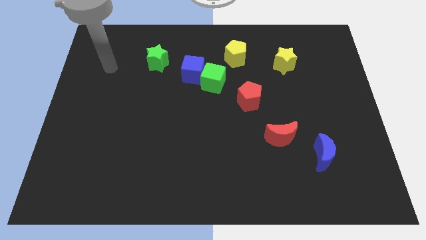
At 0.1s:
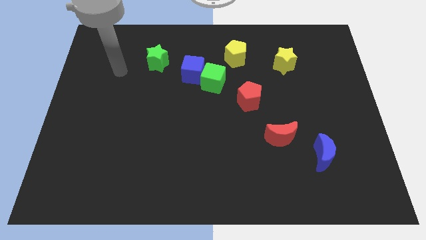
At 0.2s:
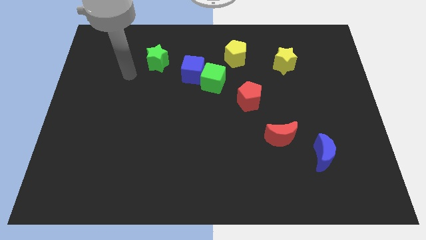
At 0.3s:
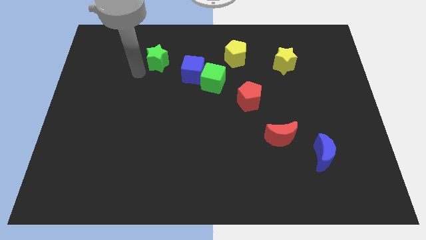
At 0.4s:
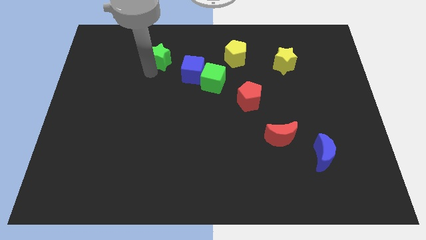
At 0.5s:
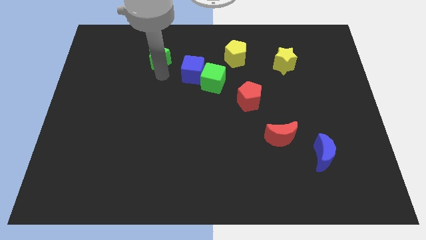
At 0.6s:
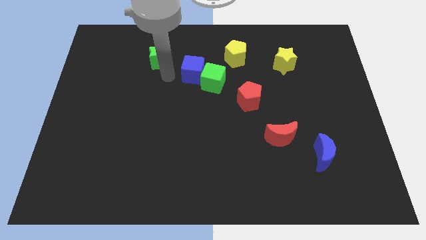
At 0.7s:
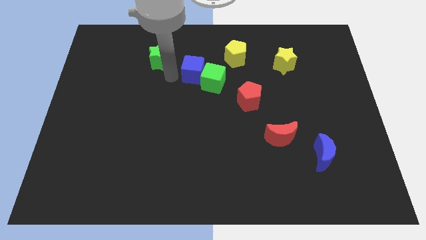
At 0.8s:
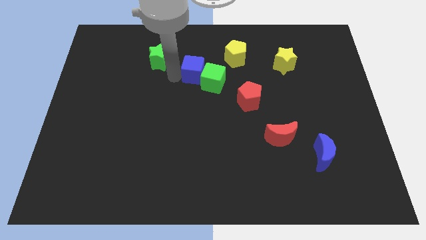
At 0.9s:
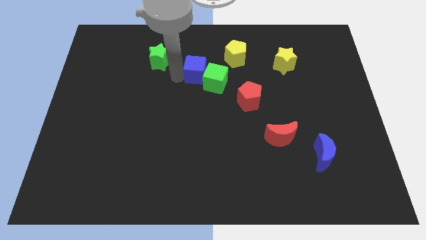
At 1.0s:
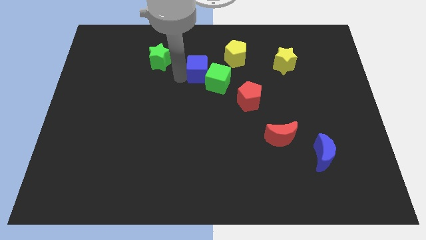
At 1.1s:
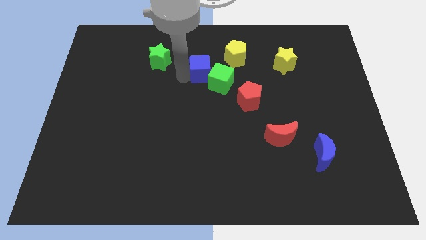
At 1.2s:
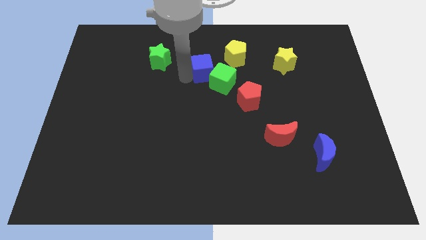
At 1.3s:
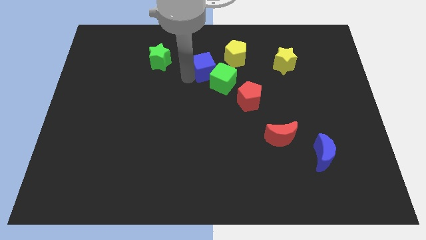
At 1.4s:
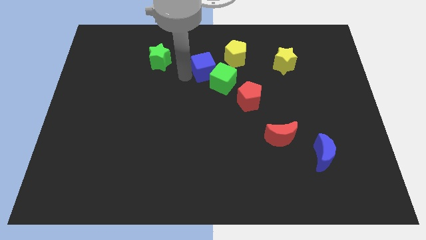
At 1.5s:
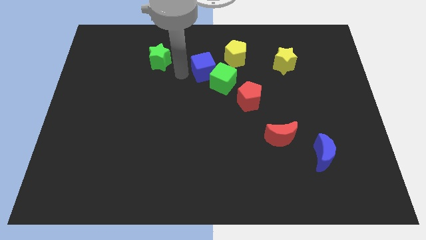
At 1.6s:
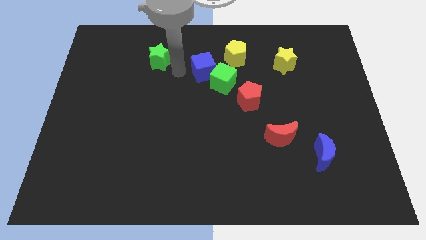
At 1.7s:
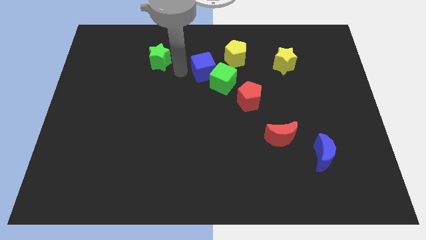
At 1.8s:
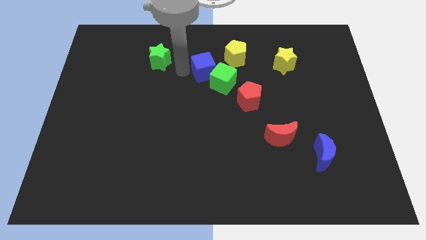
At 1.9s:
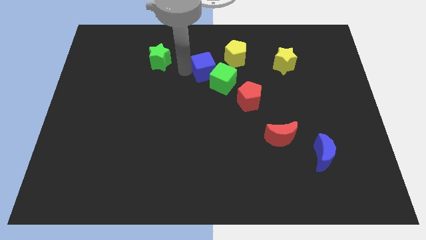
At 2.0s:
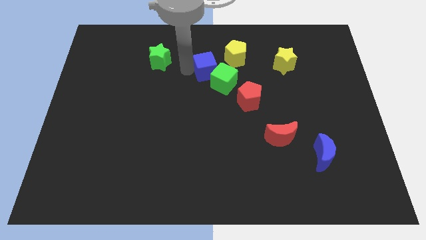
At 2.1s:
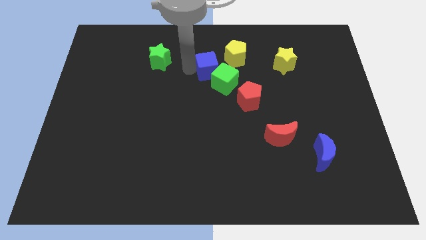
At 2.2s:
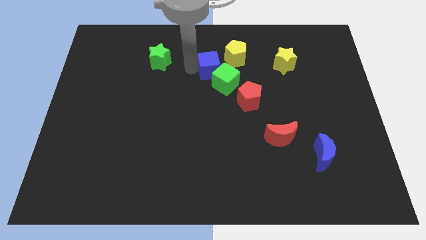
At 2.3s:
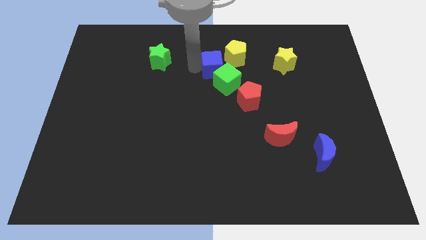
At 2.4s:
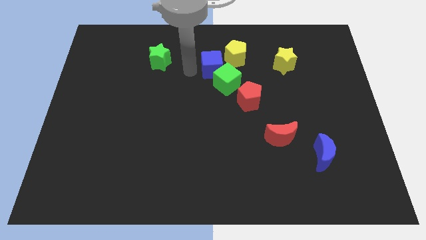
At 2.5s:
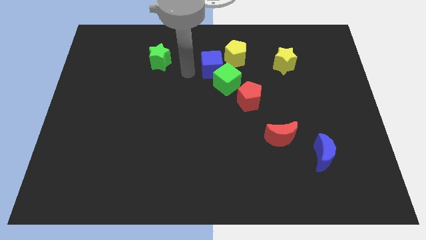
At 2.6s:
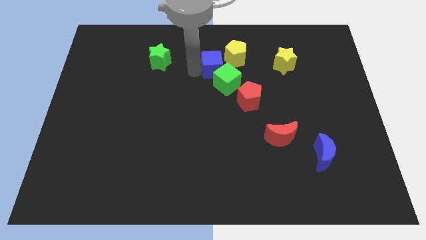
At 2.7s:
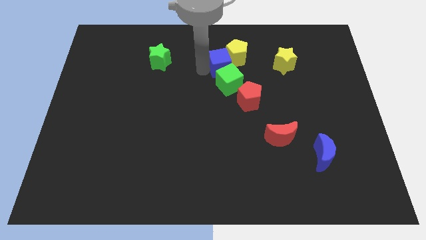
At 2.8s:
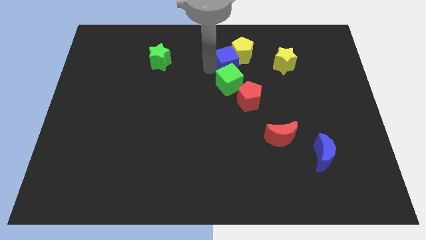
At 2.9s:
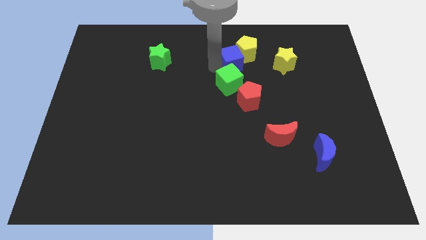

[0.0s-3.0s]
move the blue cube away from the green cube and green star

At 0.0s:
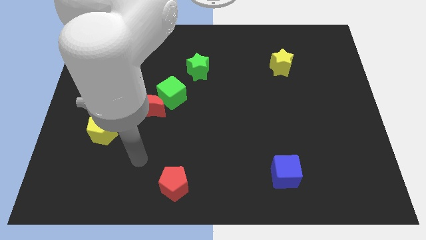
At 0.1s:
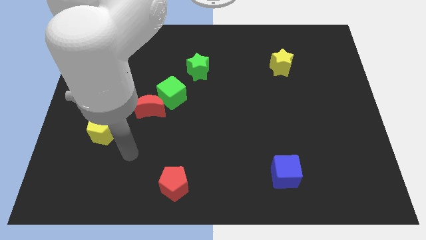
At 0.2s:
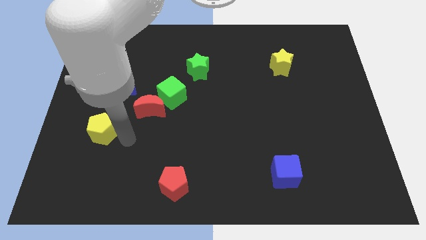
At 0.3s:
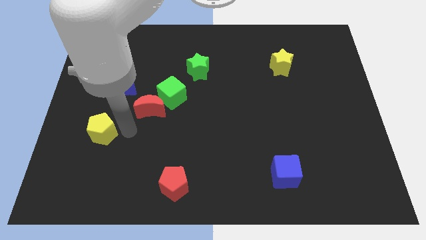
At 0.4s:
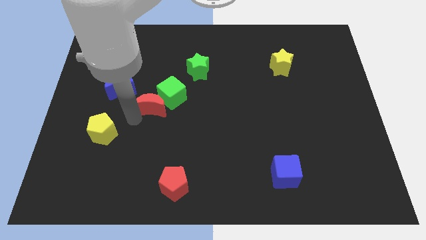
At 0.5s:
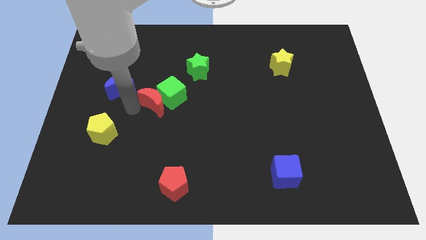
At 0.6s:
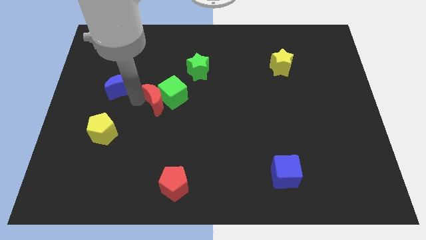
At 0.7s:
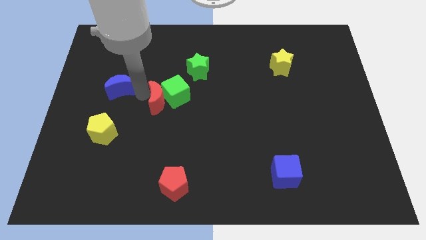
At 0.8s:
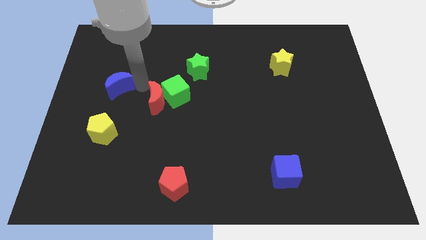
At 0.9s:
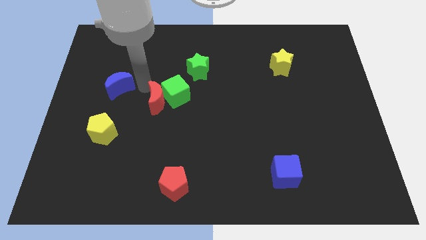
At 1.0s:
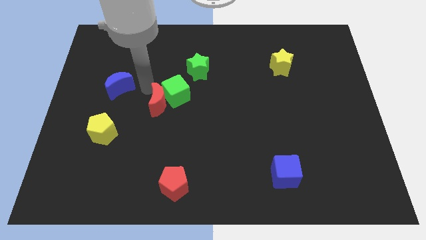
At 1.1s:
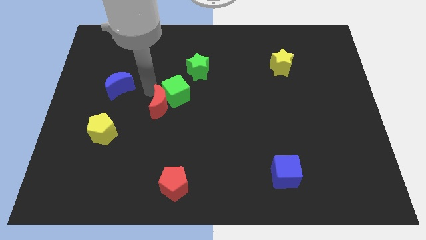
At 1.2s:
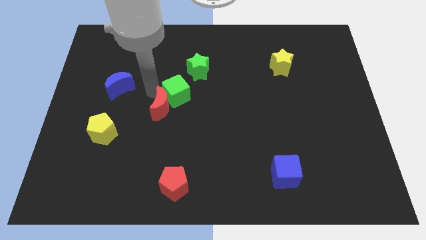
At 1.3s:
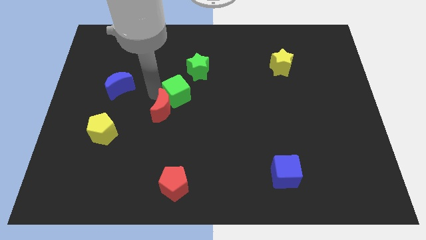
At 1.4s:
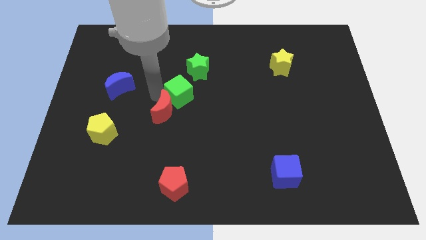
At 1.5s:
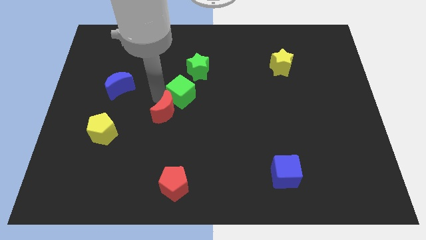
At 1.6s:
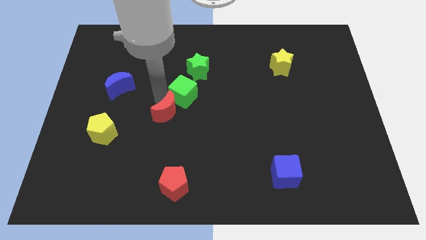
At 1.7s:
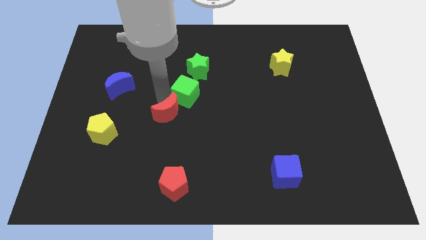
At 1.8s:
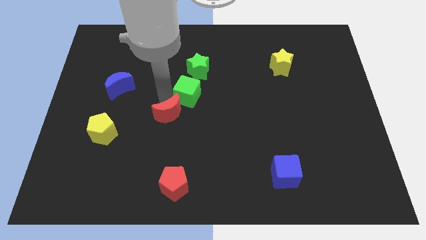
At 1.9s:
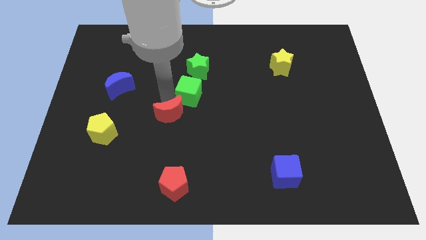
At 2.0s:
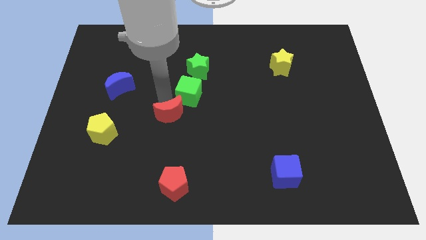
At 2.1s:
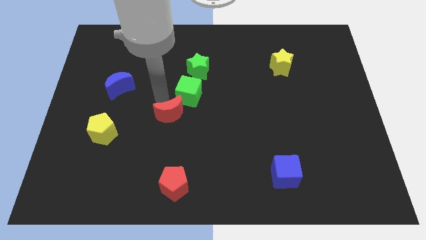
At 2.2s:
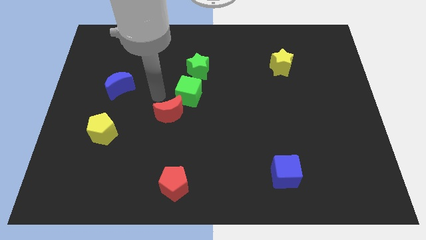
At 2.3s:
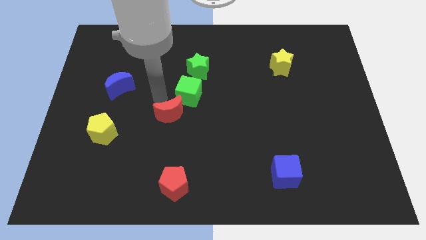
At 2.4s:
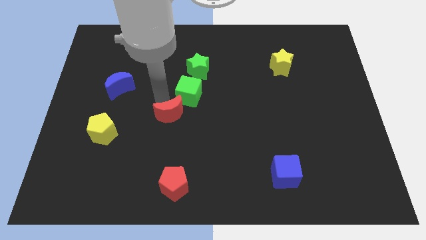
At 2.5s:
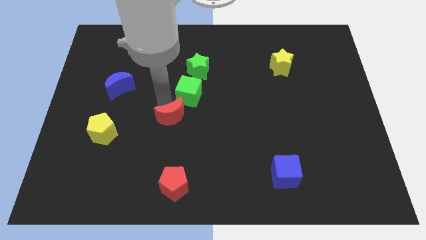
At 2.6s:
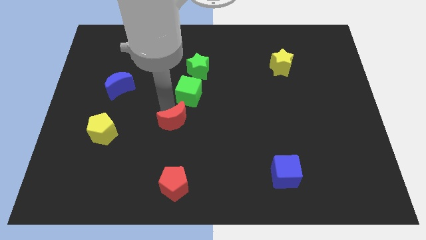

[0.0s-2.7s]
separate the red moon from the green cube and blue moon

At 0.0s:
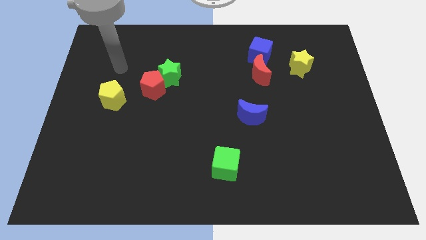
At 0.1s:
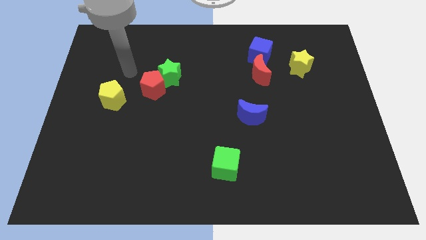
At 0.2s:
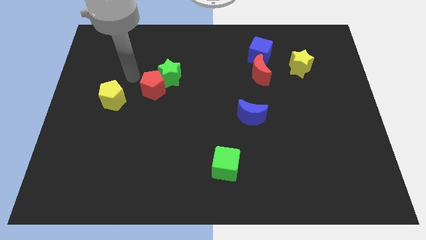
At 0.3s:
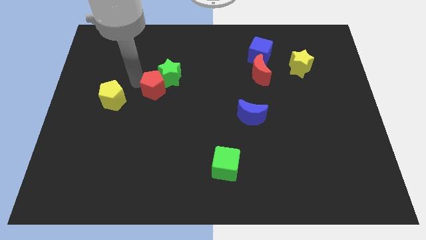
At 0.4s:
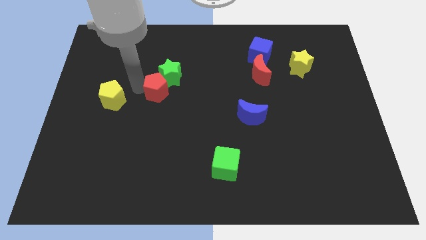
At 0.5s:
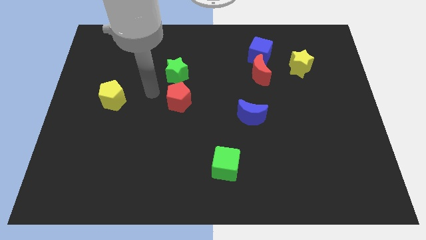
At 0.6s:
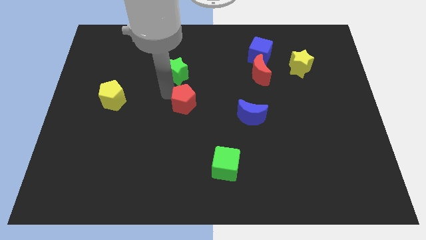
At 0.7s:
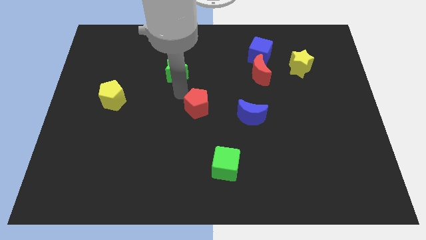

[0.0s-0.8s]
pull the green star apart from the red pentagon

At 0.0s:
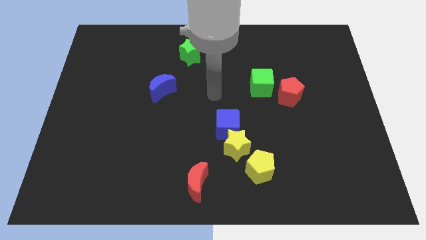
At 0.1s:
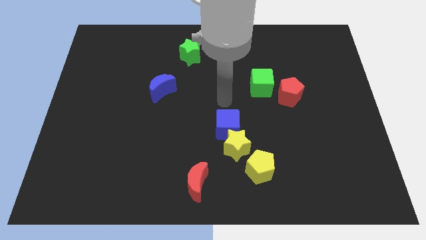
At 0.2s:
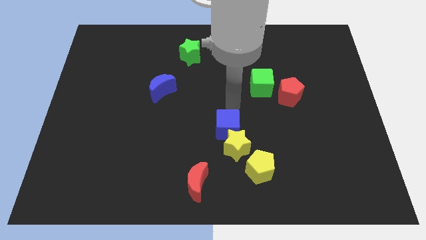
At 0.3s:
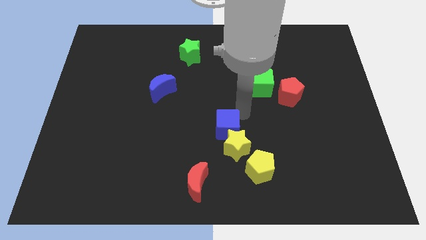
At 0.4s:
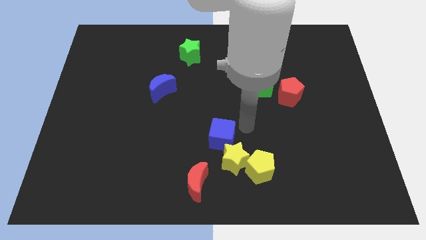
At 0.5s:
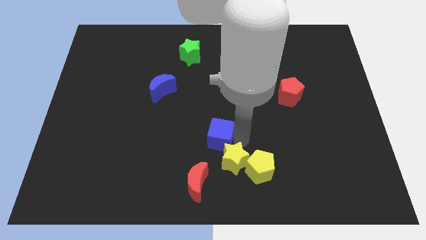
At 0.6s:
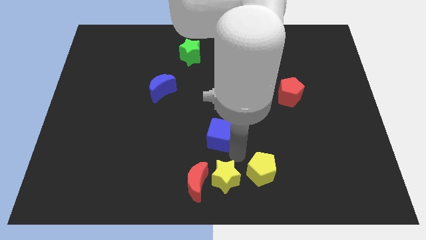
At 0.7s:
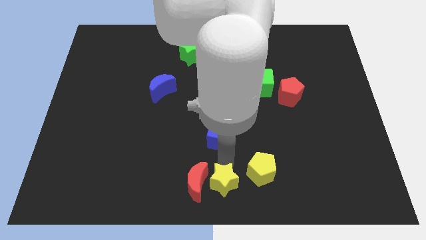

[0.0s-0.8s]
pull the blue cube apart from the yellow star

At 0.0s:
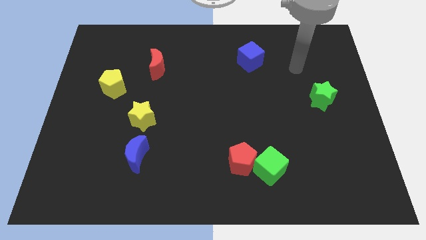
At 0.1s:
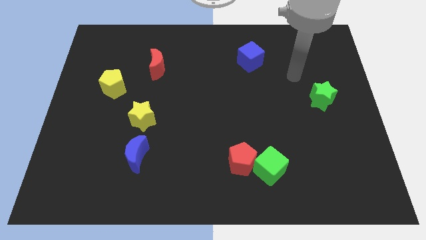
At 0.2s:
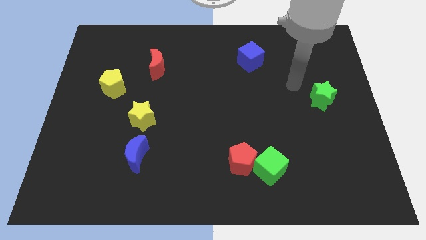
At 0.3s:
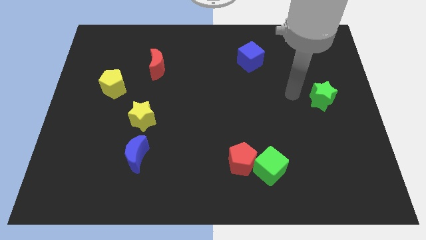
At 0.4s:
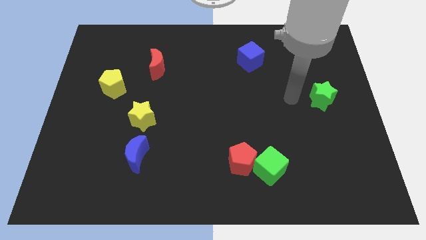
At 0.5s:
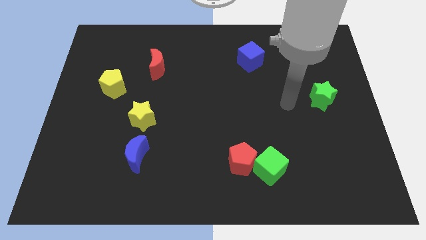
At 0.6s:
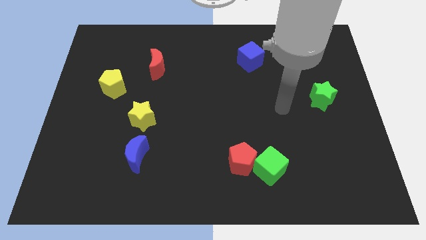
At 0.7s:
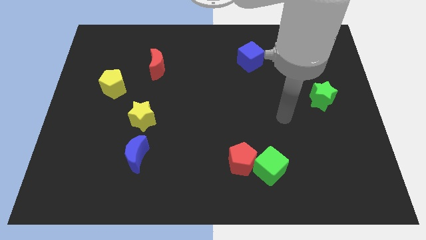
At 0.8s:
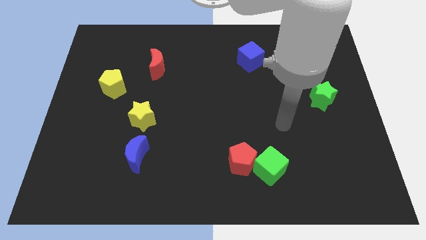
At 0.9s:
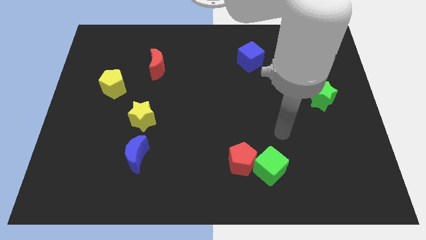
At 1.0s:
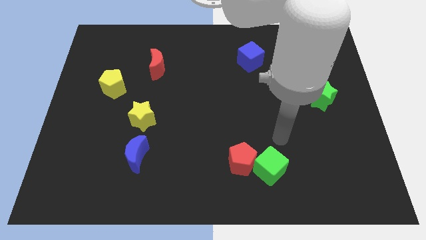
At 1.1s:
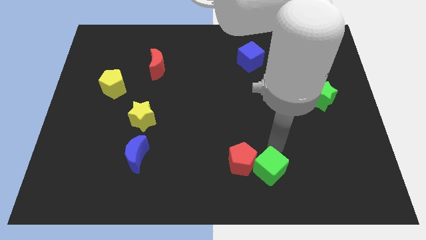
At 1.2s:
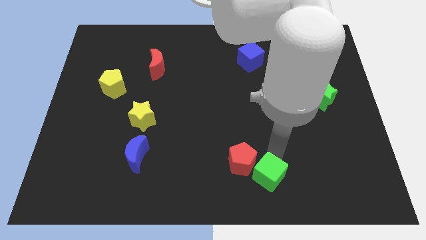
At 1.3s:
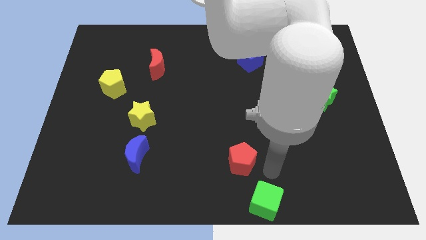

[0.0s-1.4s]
pull the red pentagon apart from the green cube

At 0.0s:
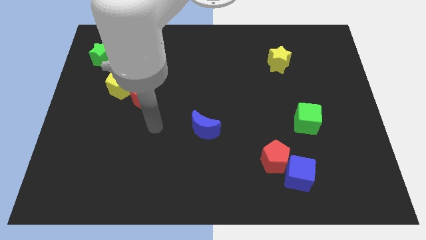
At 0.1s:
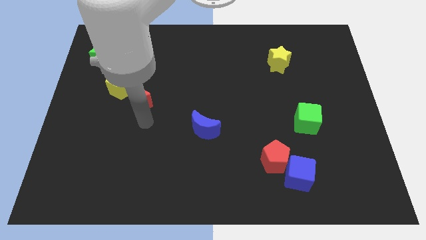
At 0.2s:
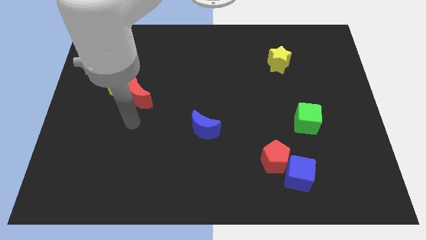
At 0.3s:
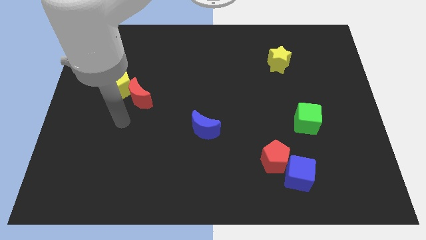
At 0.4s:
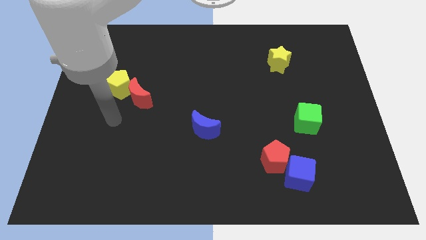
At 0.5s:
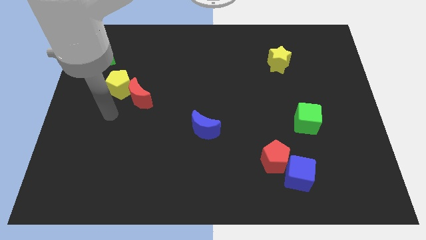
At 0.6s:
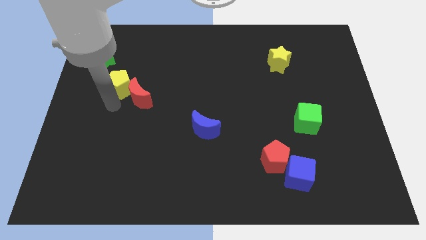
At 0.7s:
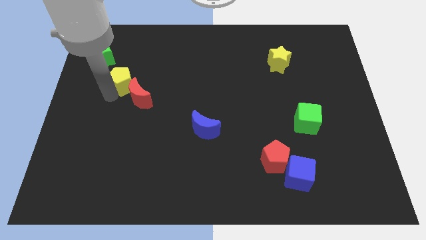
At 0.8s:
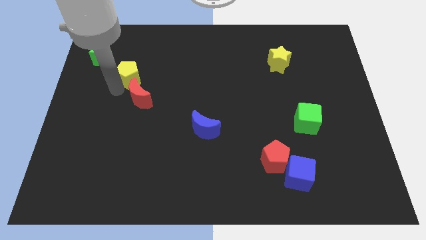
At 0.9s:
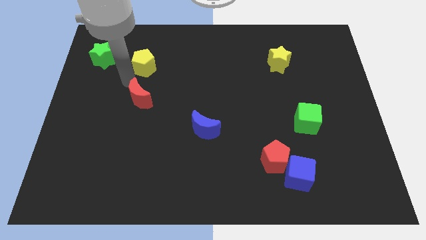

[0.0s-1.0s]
move the red moon away from the yellow pentagon
